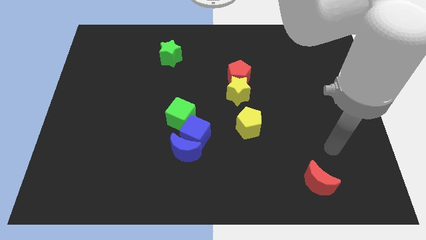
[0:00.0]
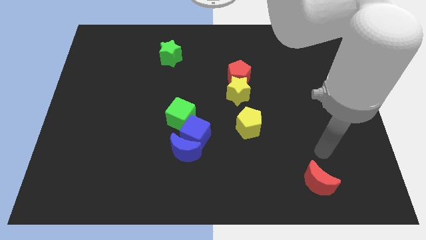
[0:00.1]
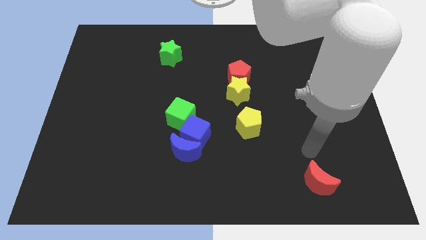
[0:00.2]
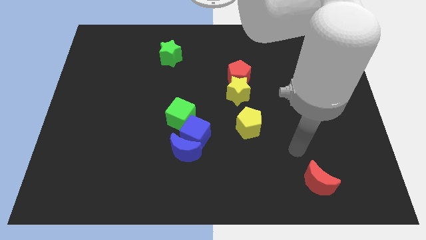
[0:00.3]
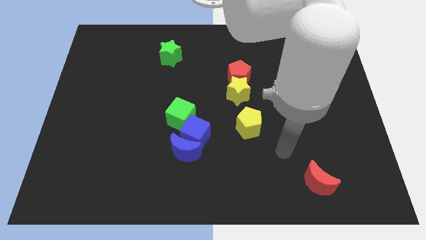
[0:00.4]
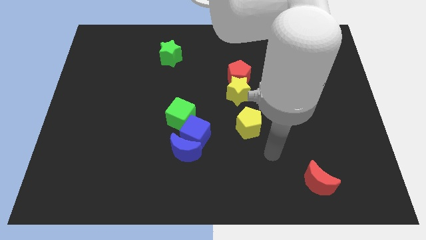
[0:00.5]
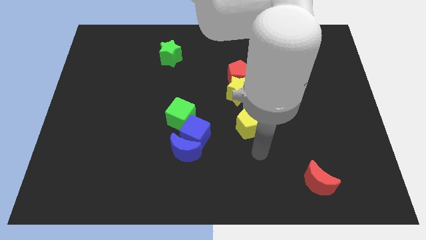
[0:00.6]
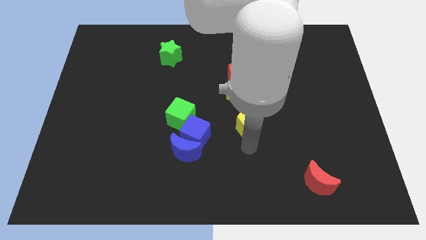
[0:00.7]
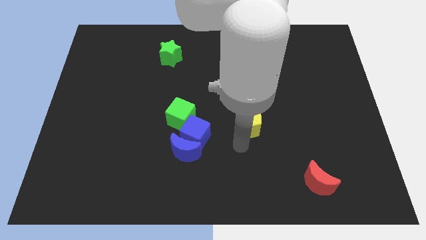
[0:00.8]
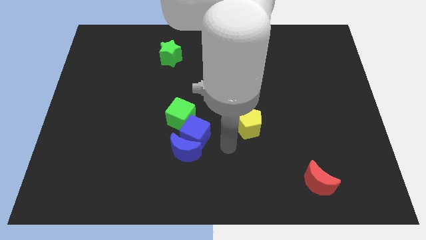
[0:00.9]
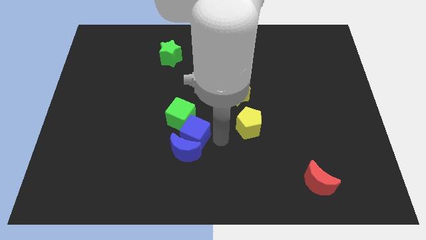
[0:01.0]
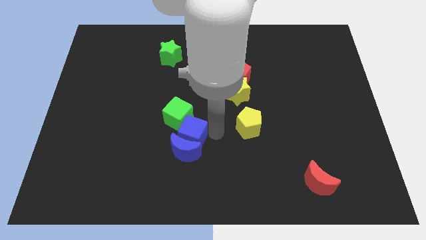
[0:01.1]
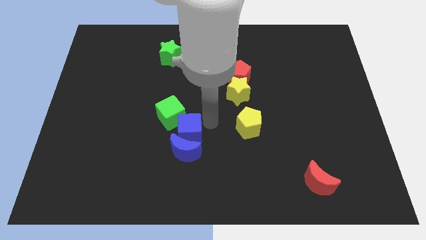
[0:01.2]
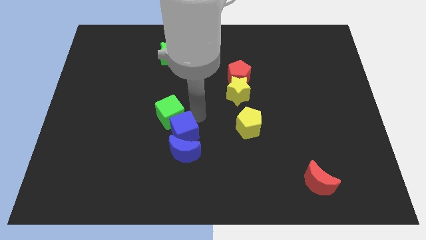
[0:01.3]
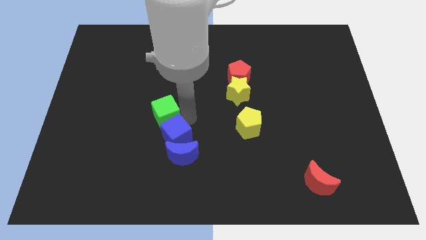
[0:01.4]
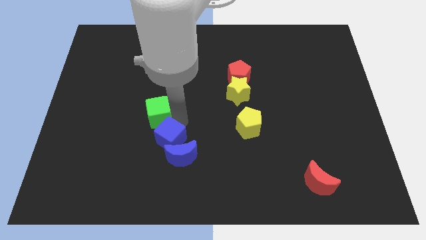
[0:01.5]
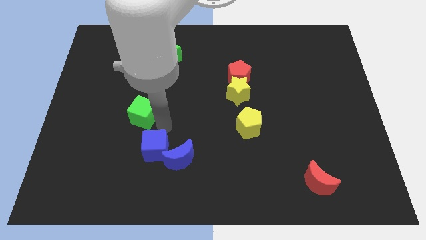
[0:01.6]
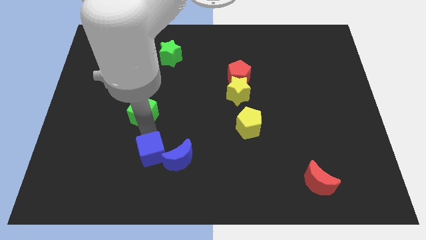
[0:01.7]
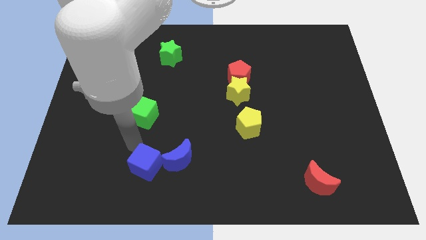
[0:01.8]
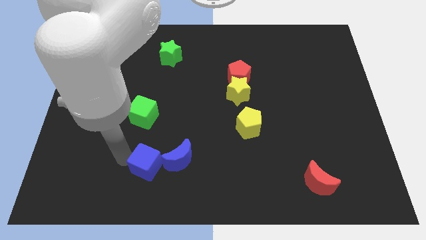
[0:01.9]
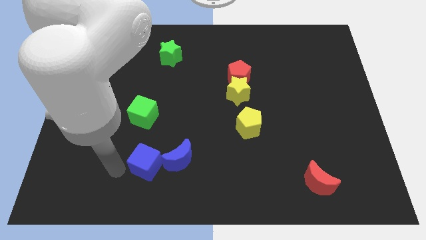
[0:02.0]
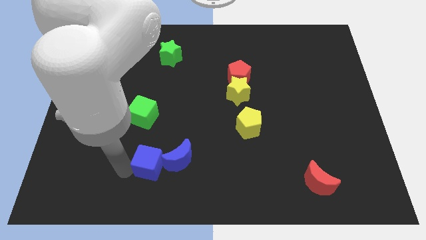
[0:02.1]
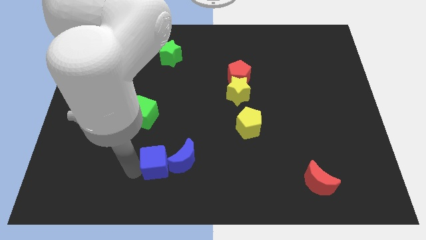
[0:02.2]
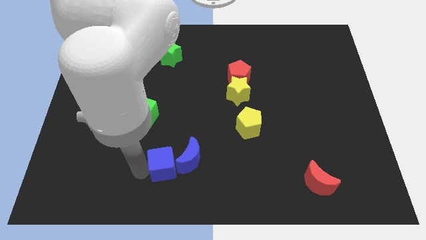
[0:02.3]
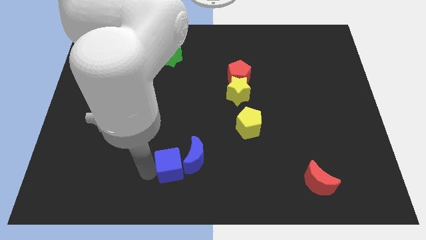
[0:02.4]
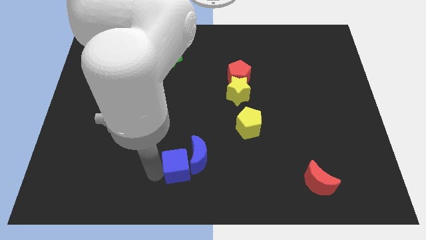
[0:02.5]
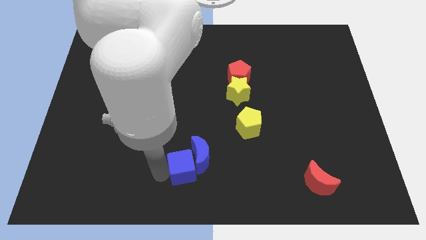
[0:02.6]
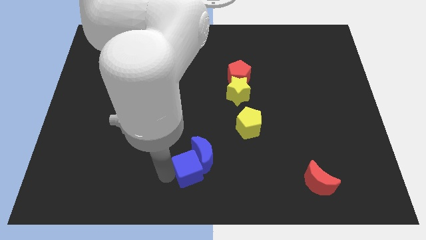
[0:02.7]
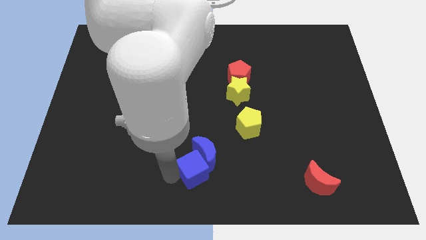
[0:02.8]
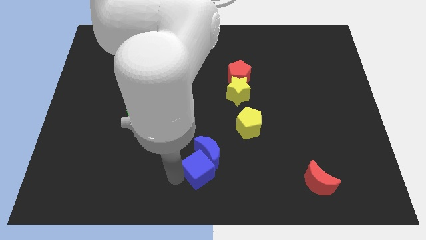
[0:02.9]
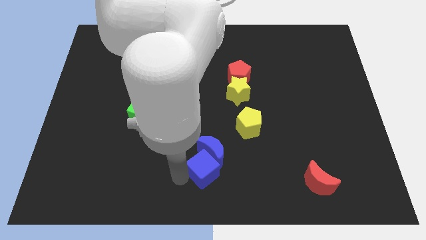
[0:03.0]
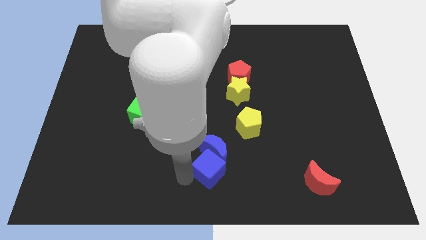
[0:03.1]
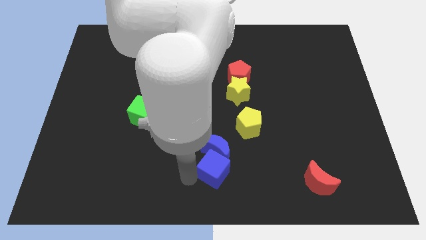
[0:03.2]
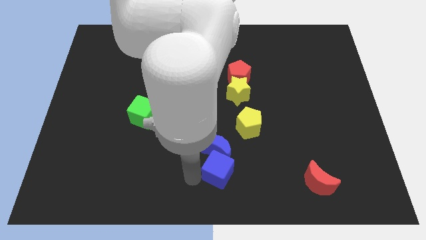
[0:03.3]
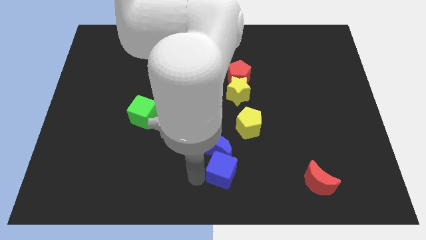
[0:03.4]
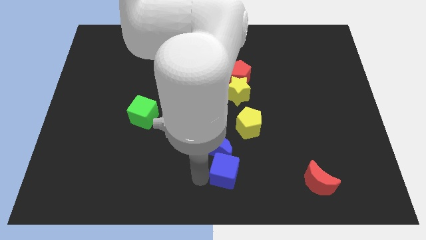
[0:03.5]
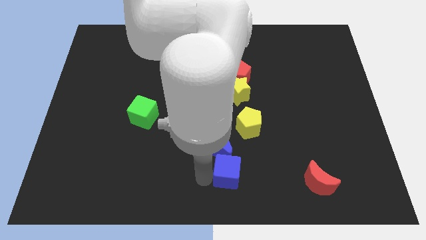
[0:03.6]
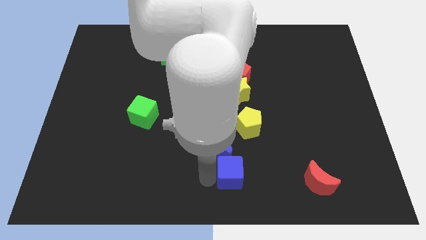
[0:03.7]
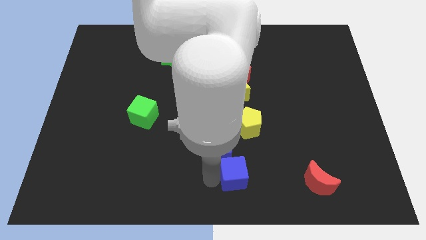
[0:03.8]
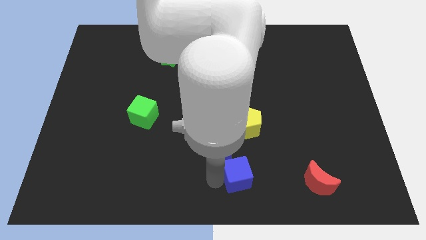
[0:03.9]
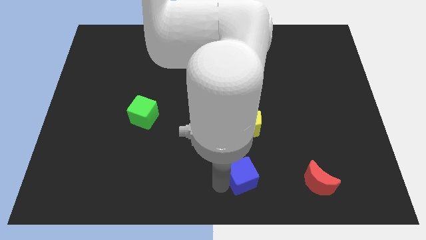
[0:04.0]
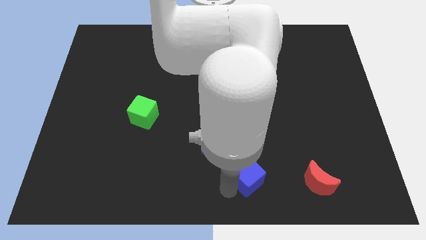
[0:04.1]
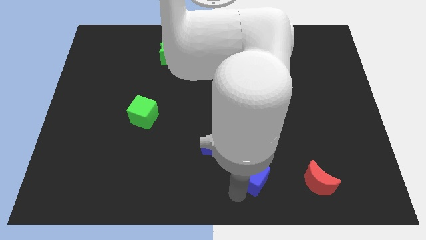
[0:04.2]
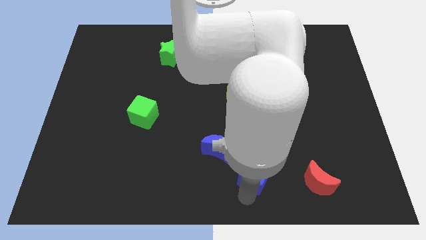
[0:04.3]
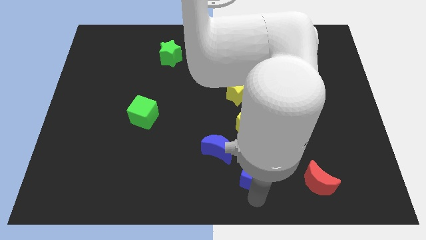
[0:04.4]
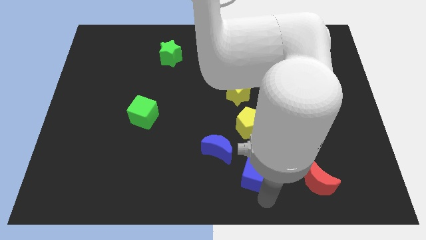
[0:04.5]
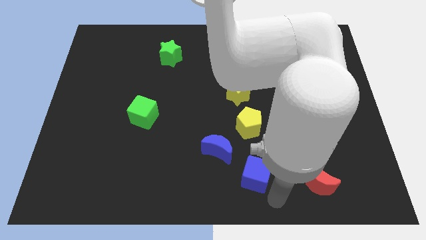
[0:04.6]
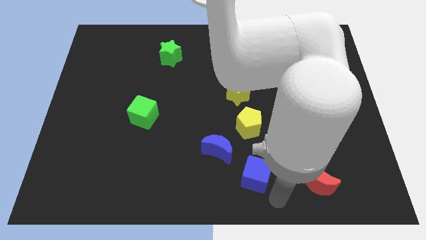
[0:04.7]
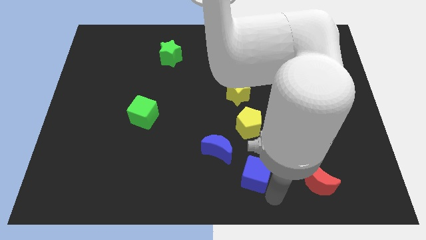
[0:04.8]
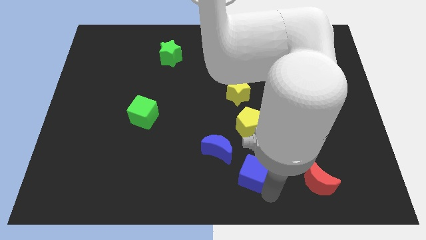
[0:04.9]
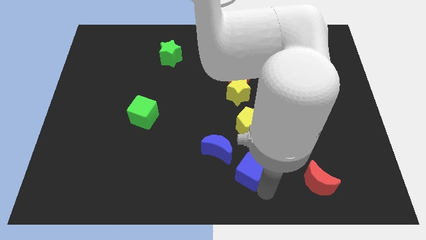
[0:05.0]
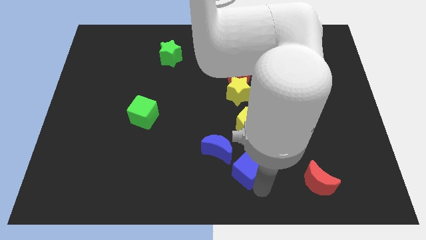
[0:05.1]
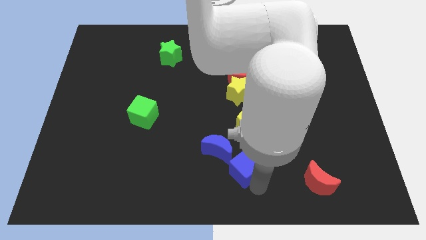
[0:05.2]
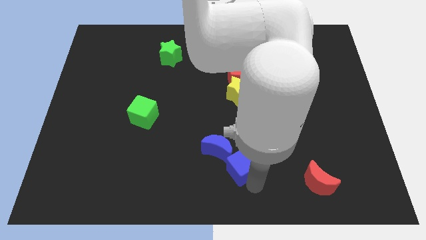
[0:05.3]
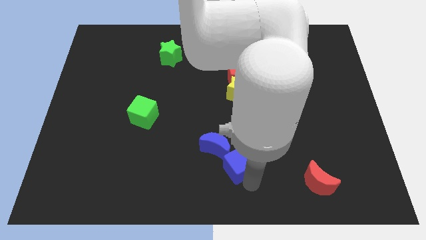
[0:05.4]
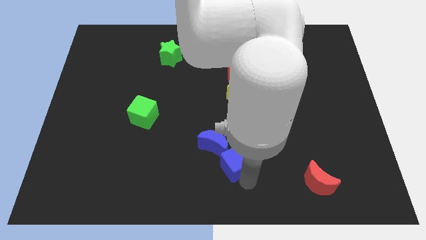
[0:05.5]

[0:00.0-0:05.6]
move the blue cube diagonally down and to the left of the yellow pentagon
